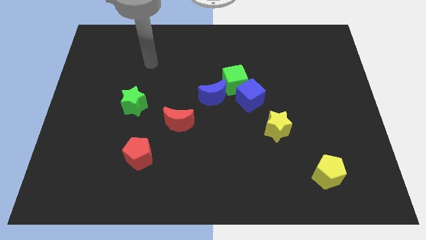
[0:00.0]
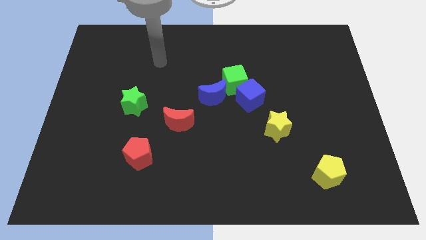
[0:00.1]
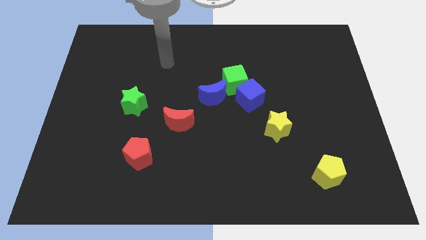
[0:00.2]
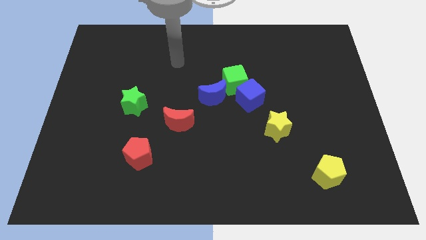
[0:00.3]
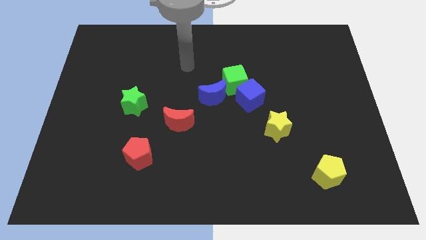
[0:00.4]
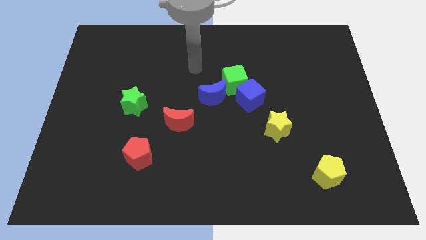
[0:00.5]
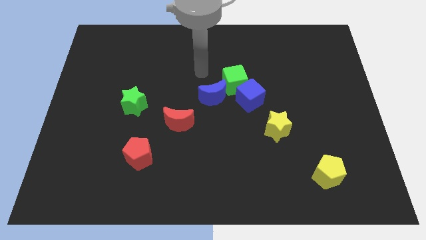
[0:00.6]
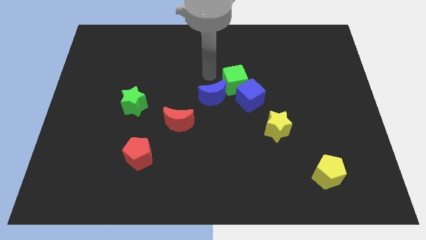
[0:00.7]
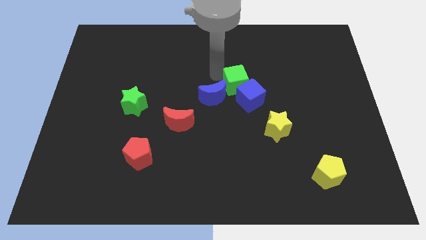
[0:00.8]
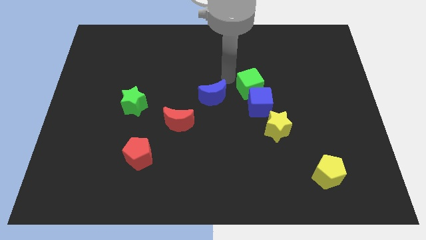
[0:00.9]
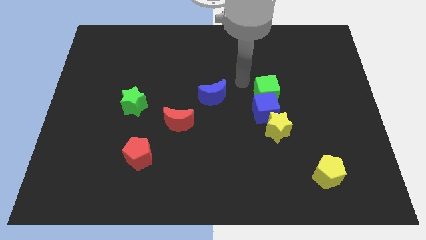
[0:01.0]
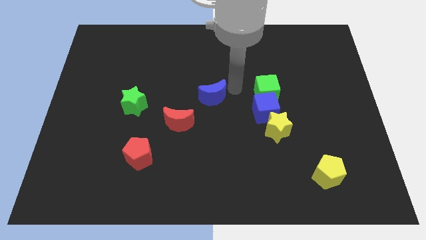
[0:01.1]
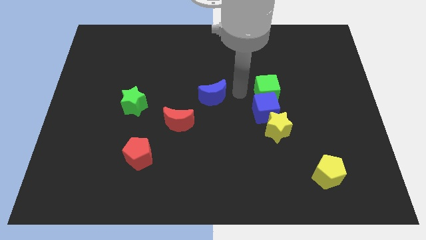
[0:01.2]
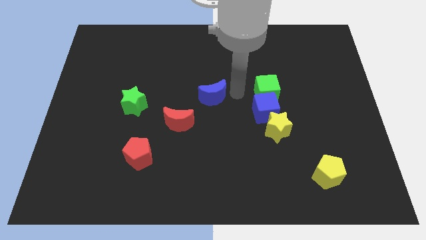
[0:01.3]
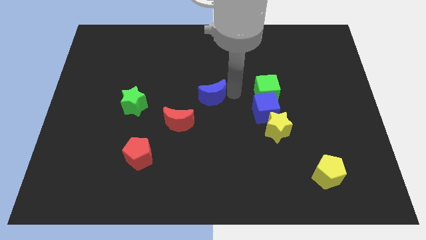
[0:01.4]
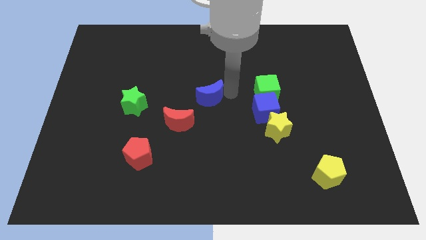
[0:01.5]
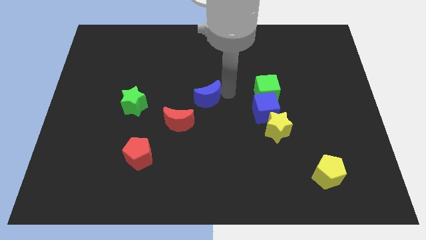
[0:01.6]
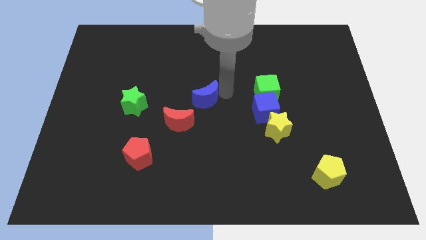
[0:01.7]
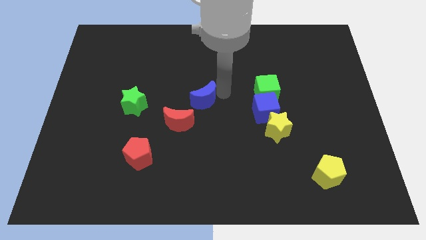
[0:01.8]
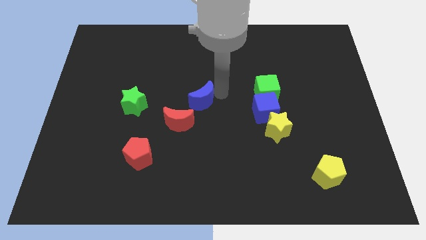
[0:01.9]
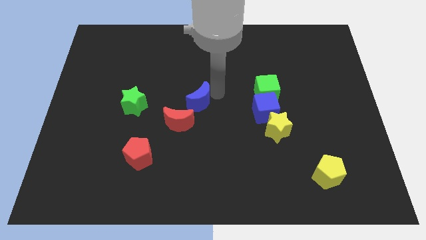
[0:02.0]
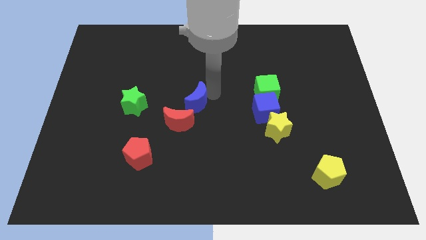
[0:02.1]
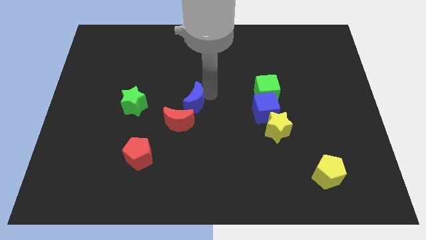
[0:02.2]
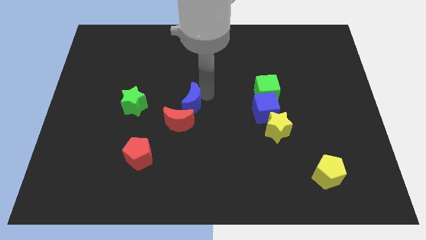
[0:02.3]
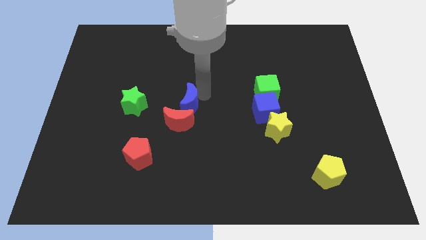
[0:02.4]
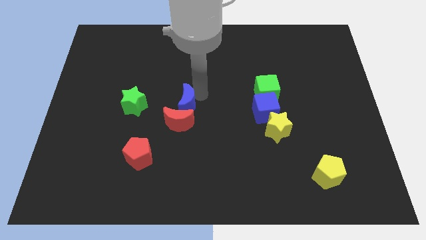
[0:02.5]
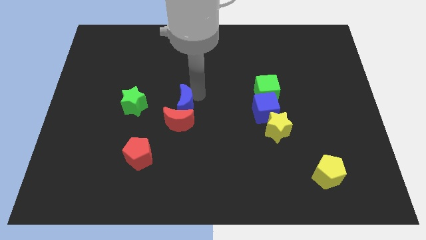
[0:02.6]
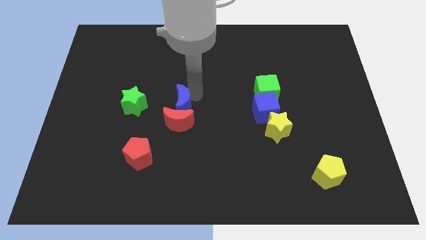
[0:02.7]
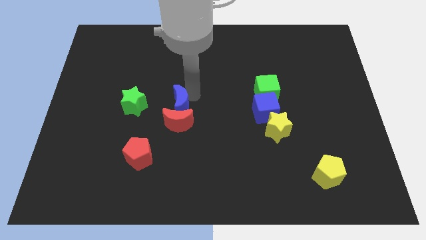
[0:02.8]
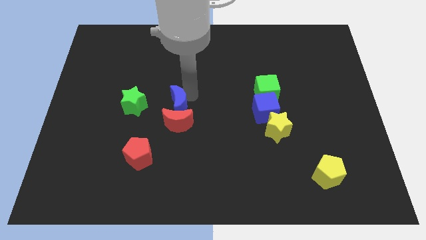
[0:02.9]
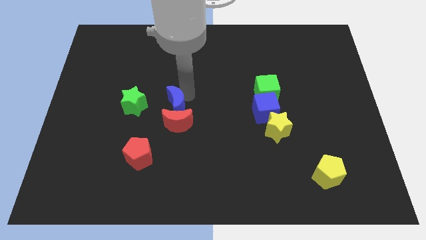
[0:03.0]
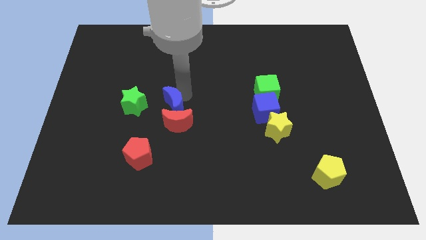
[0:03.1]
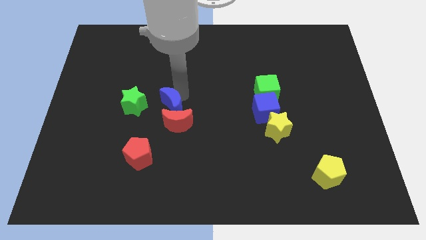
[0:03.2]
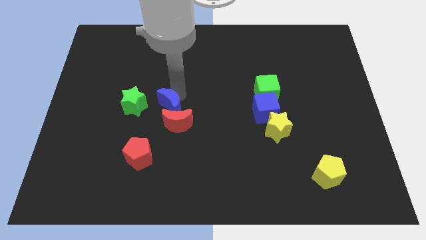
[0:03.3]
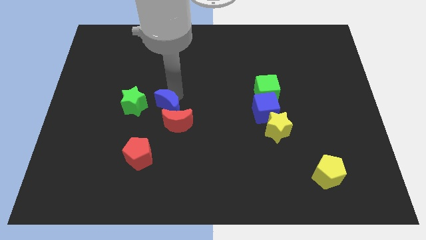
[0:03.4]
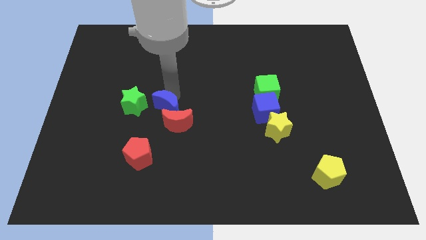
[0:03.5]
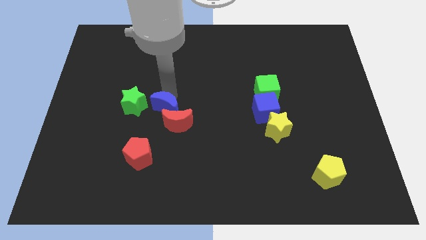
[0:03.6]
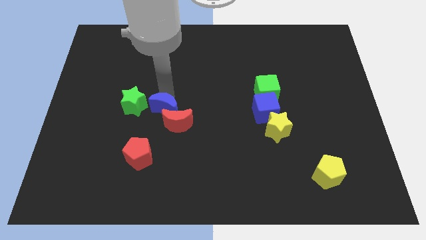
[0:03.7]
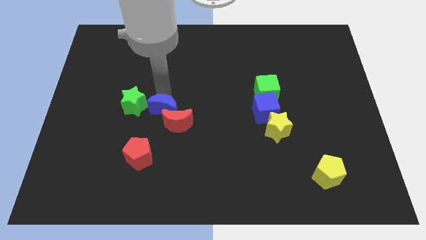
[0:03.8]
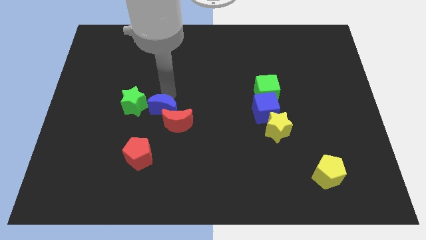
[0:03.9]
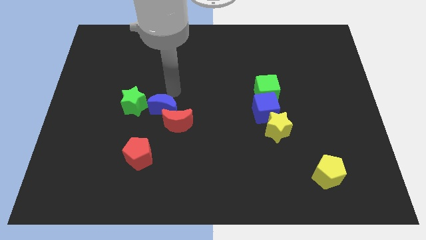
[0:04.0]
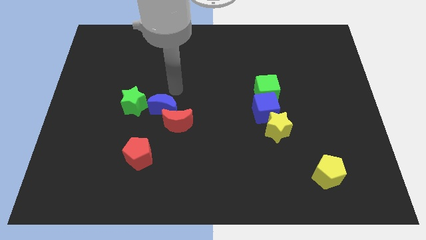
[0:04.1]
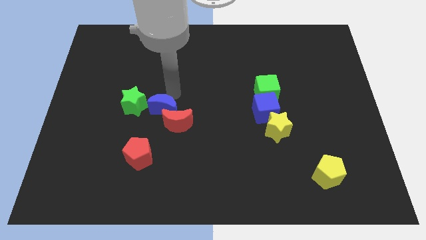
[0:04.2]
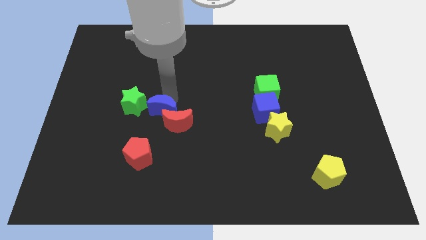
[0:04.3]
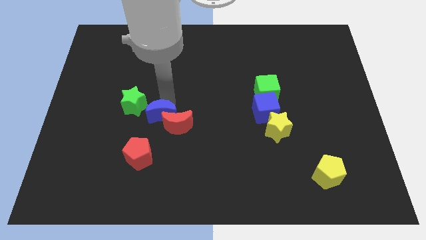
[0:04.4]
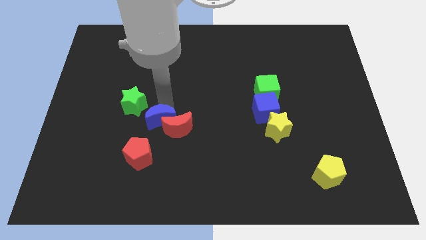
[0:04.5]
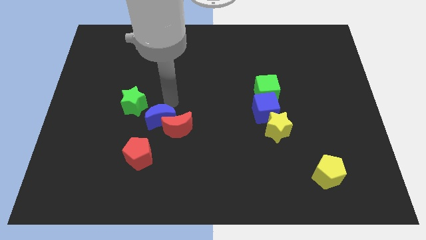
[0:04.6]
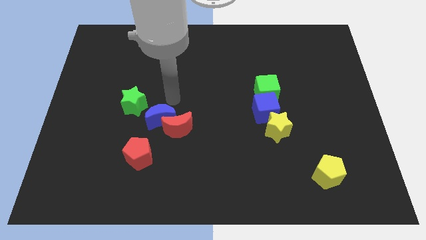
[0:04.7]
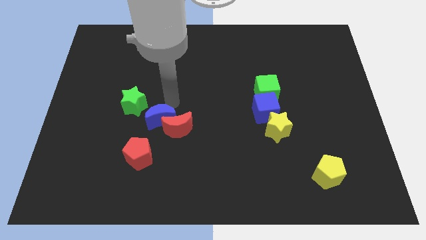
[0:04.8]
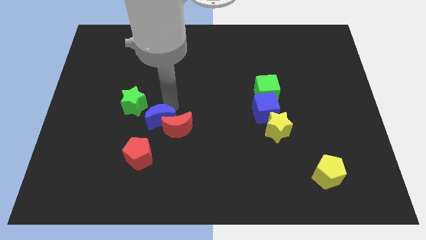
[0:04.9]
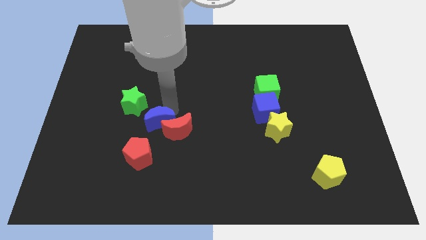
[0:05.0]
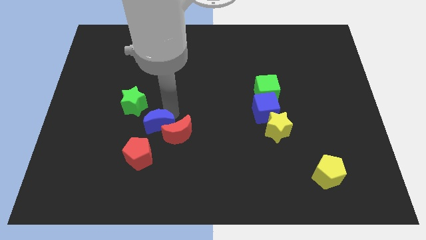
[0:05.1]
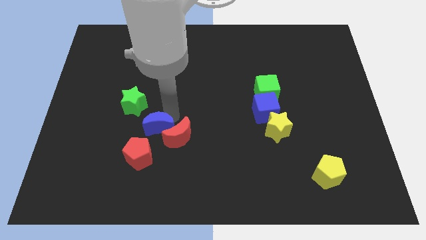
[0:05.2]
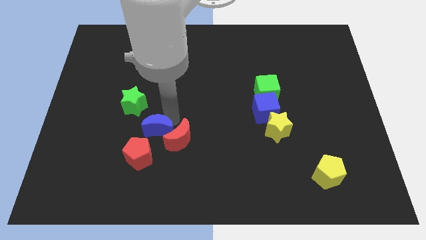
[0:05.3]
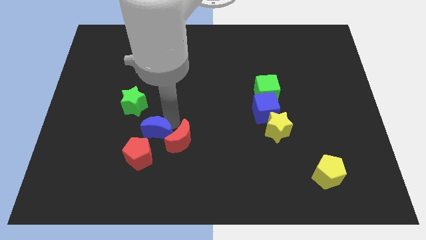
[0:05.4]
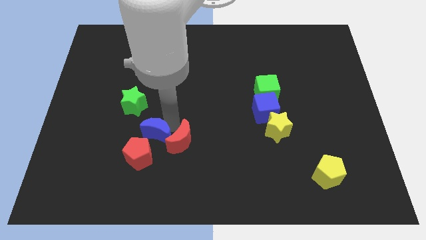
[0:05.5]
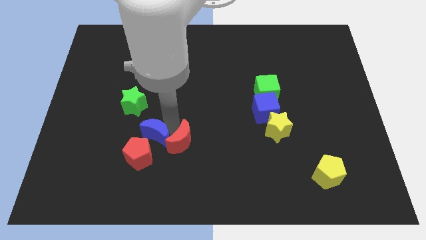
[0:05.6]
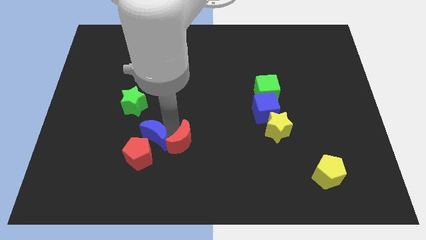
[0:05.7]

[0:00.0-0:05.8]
slide the blue moon close to the red pentagon

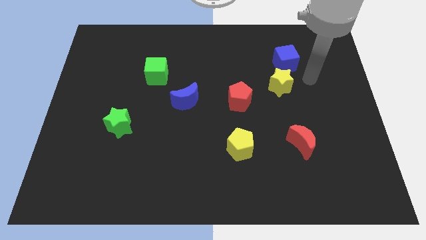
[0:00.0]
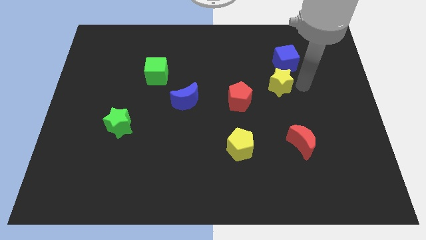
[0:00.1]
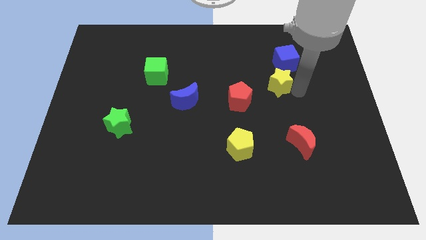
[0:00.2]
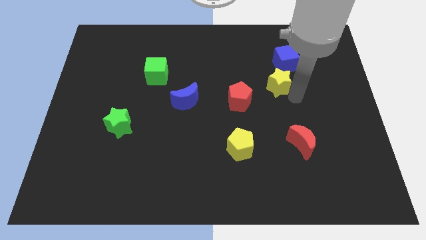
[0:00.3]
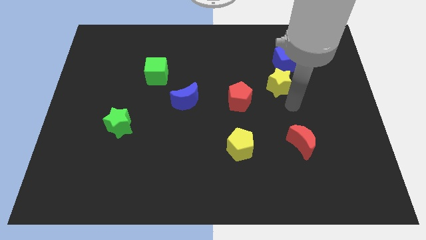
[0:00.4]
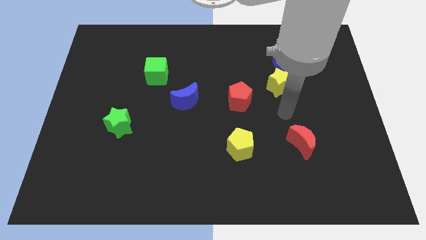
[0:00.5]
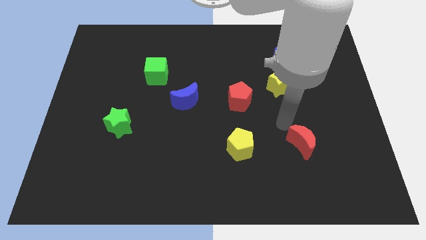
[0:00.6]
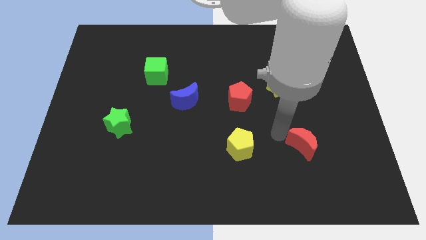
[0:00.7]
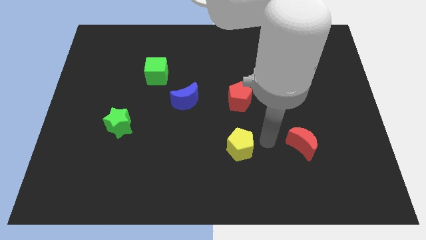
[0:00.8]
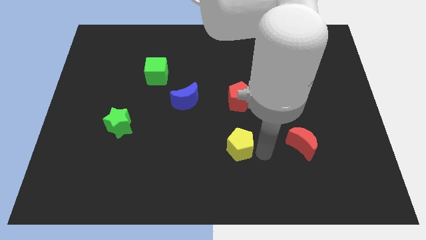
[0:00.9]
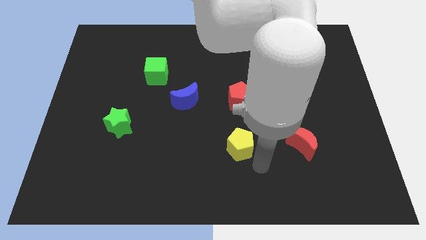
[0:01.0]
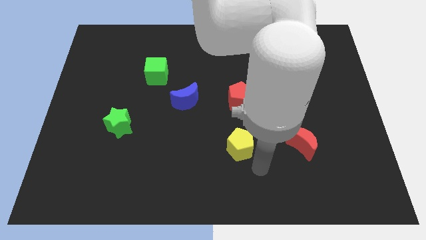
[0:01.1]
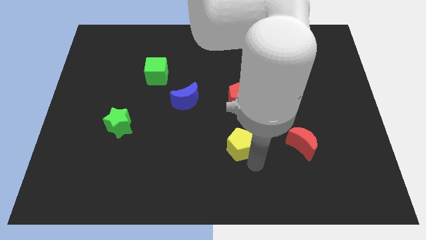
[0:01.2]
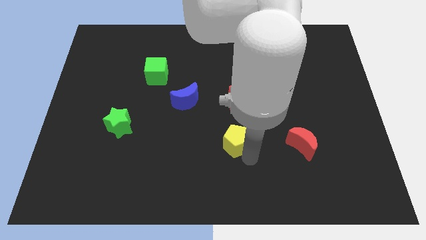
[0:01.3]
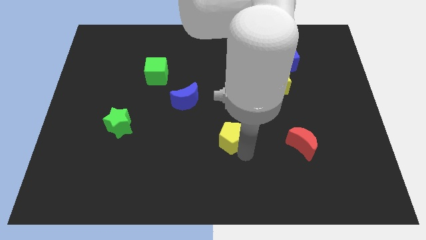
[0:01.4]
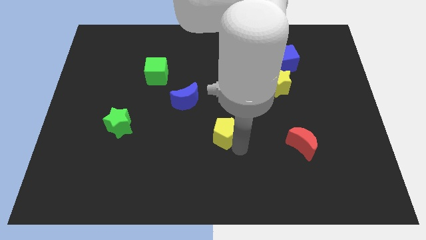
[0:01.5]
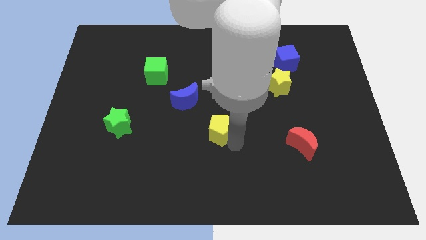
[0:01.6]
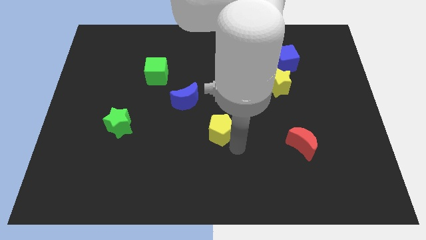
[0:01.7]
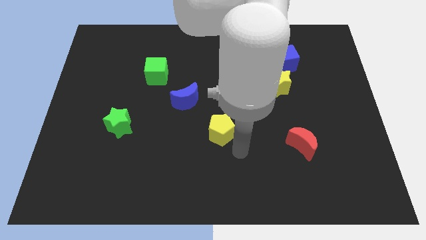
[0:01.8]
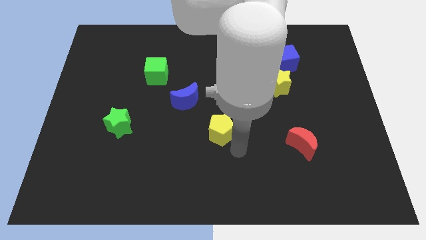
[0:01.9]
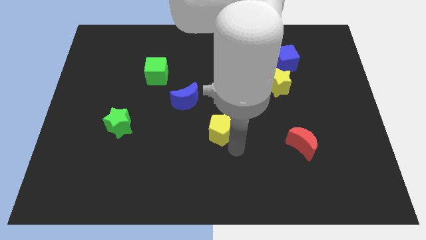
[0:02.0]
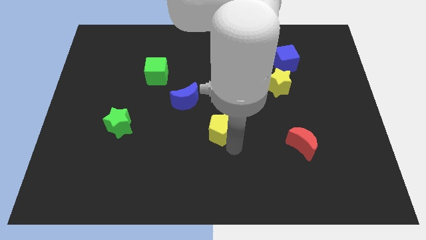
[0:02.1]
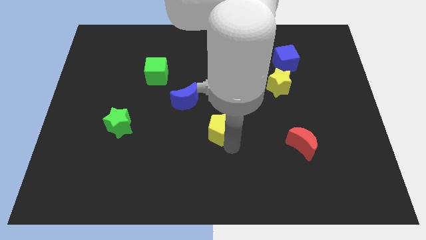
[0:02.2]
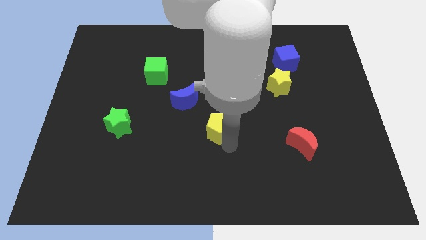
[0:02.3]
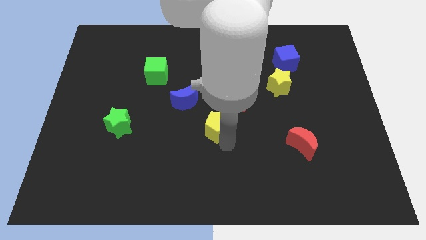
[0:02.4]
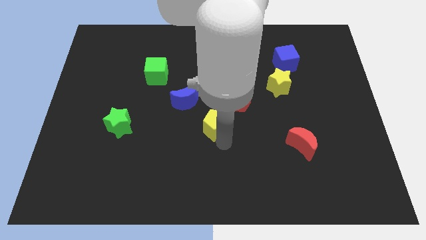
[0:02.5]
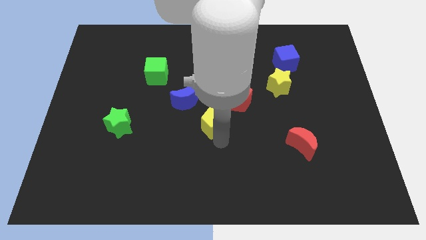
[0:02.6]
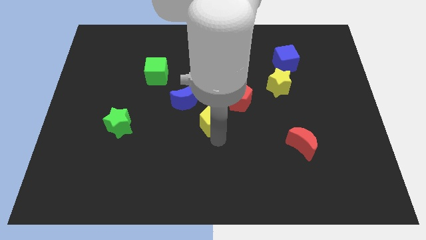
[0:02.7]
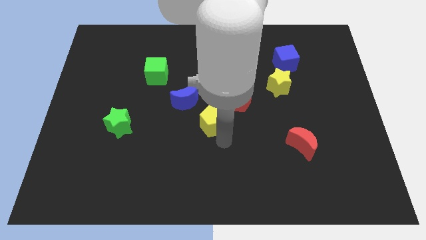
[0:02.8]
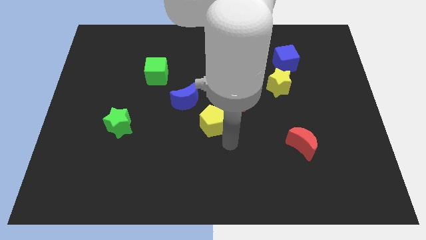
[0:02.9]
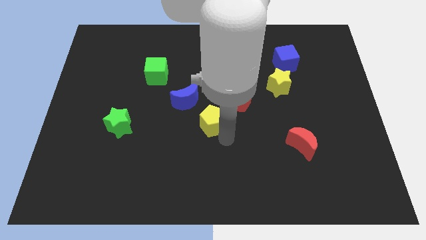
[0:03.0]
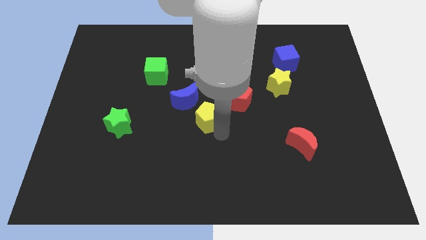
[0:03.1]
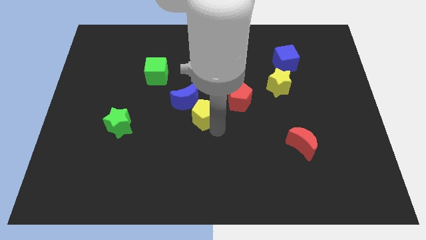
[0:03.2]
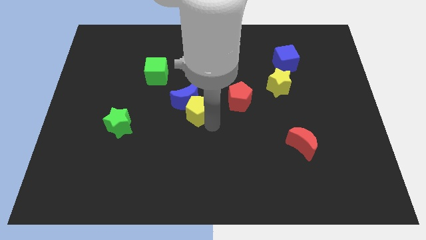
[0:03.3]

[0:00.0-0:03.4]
put the yellow pentagon towards the blue moon
